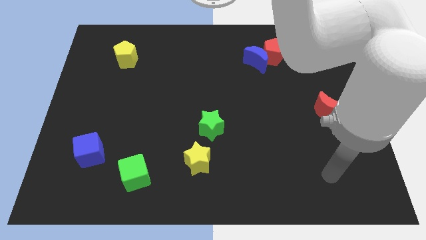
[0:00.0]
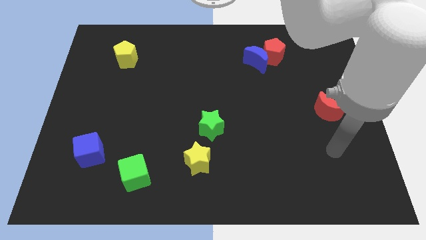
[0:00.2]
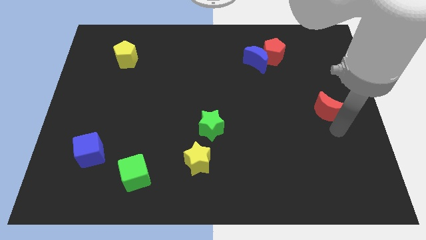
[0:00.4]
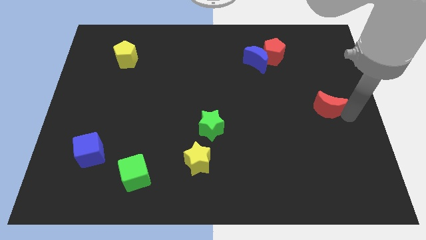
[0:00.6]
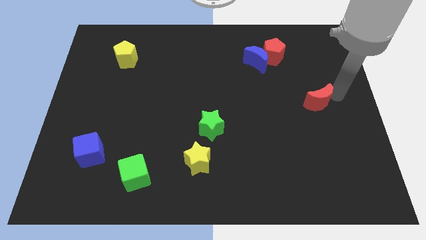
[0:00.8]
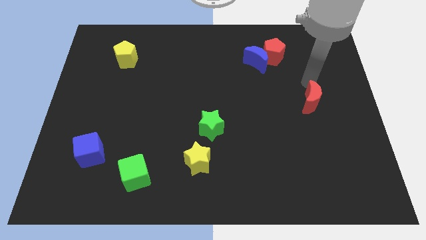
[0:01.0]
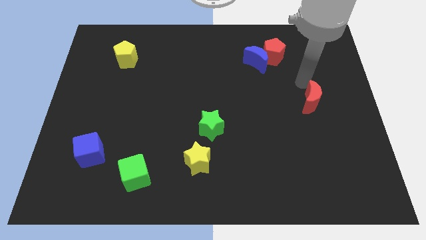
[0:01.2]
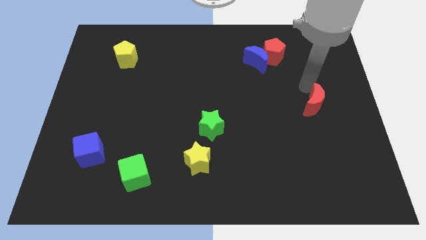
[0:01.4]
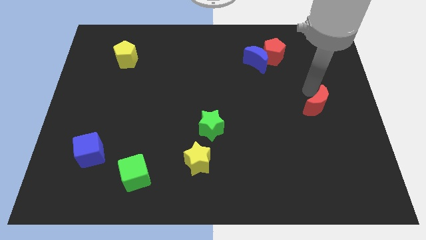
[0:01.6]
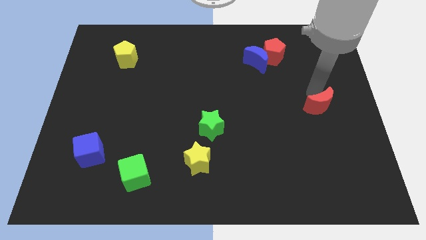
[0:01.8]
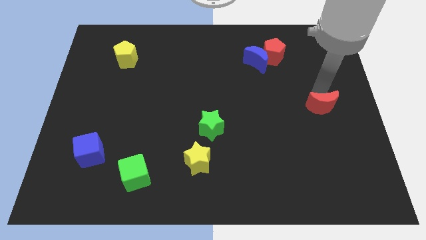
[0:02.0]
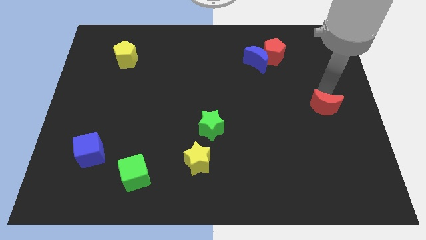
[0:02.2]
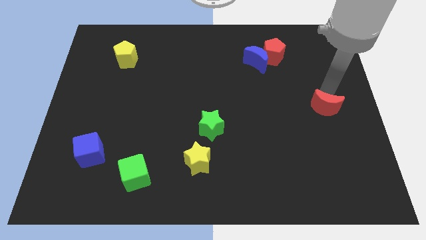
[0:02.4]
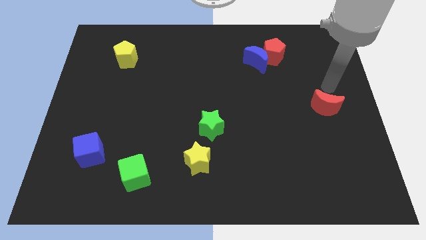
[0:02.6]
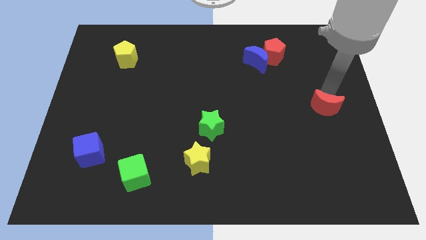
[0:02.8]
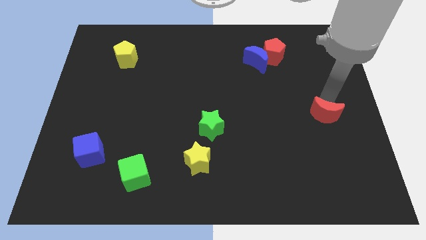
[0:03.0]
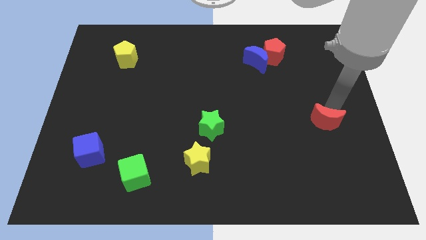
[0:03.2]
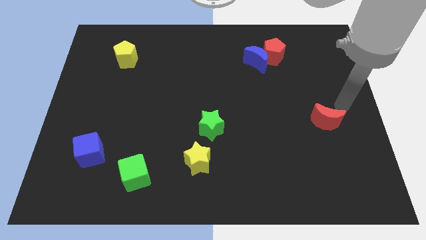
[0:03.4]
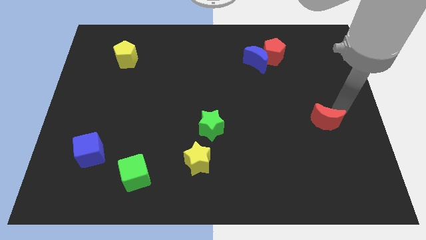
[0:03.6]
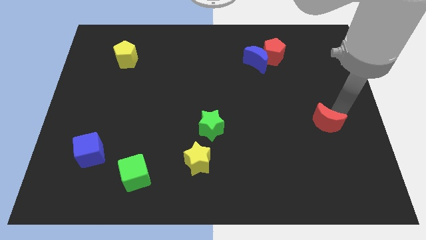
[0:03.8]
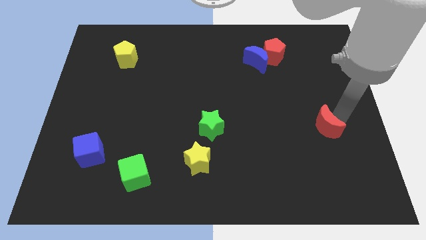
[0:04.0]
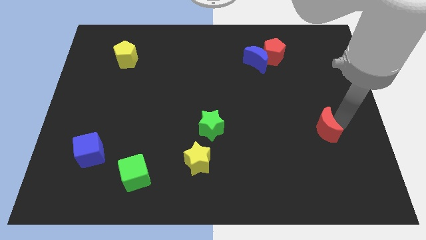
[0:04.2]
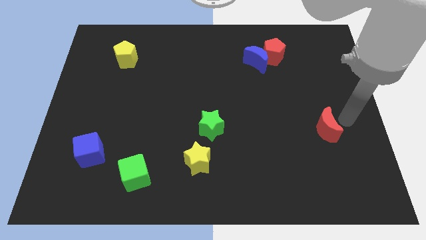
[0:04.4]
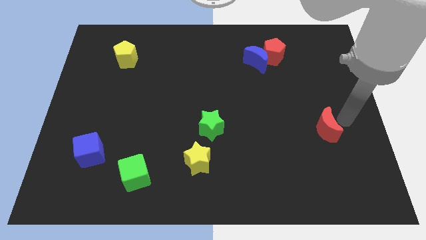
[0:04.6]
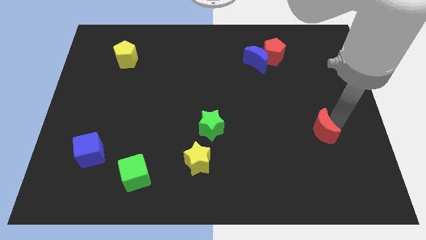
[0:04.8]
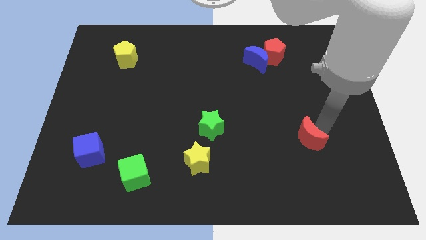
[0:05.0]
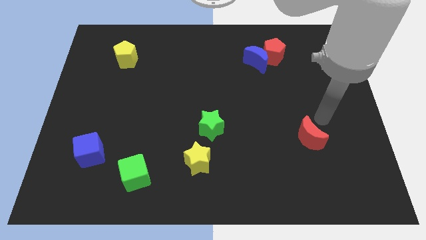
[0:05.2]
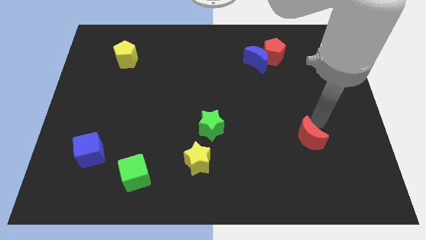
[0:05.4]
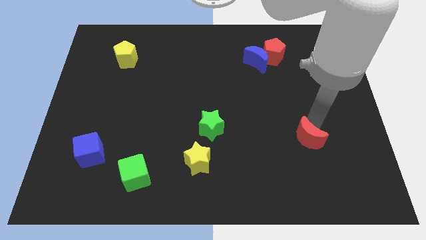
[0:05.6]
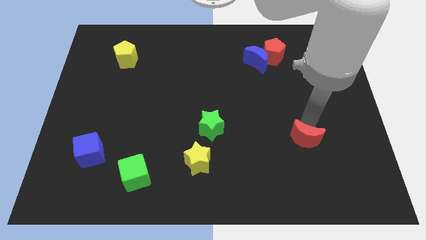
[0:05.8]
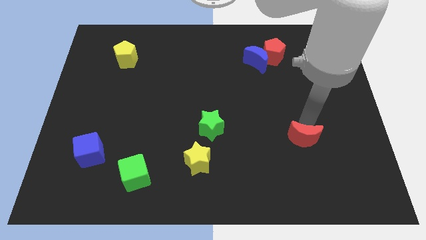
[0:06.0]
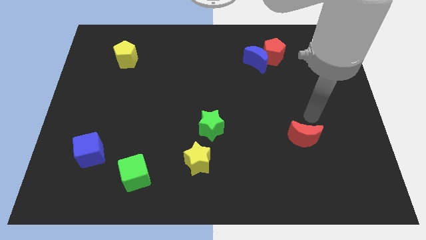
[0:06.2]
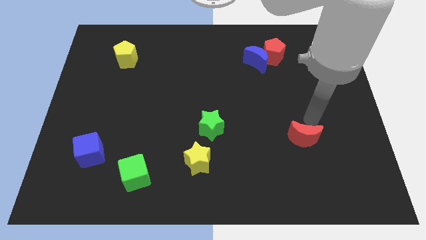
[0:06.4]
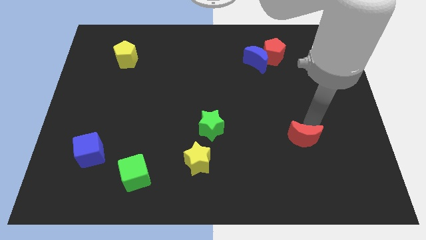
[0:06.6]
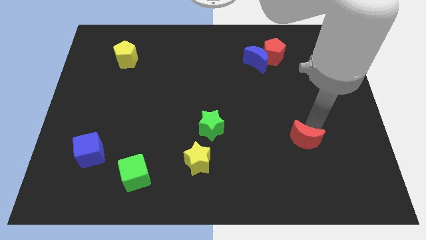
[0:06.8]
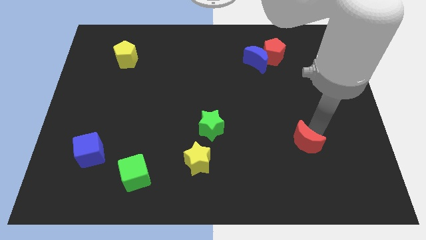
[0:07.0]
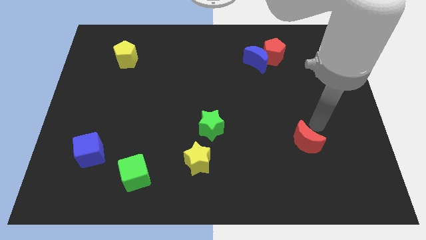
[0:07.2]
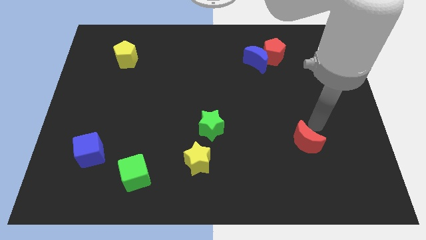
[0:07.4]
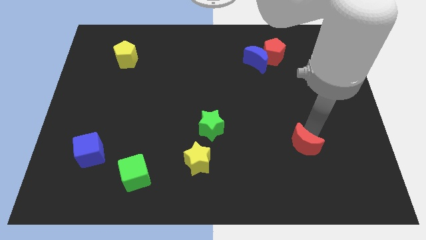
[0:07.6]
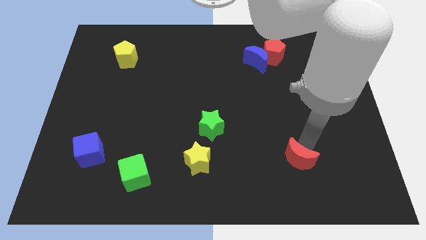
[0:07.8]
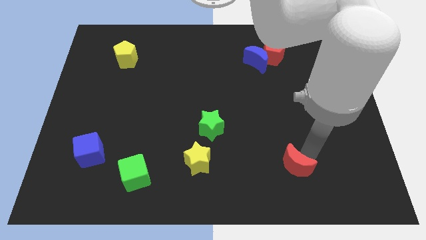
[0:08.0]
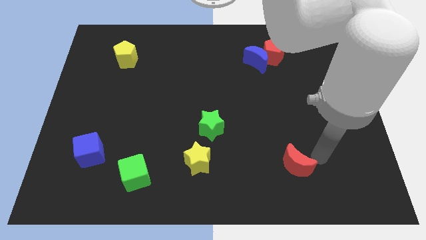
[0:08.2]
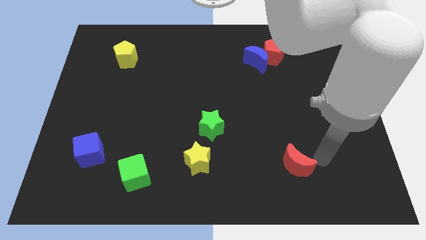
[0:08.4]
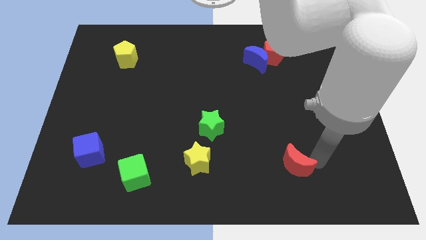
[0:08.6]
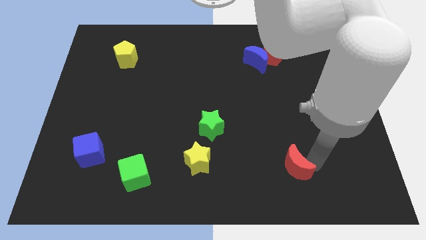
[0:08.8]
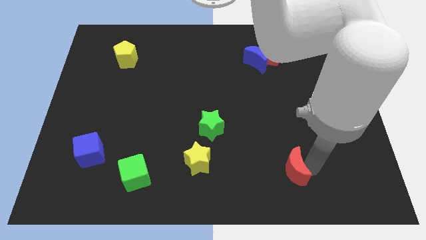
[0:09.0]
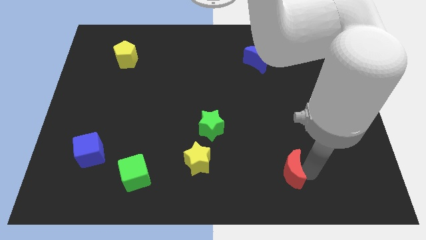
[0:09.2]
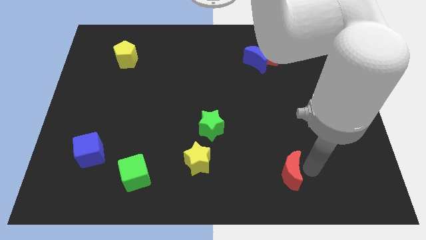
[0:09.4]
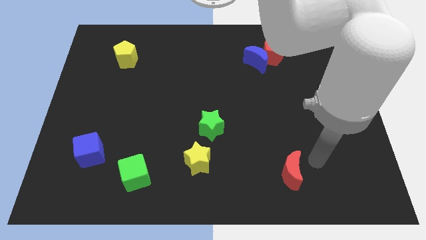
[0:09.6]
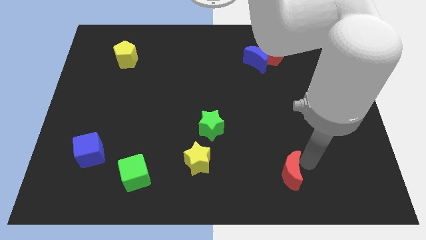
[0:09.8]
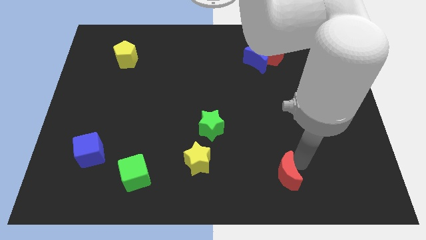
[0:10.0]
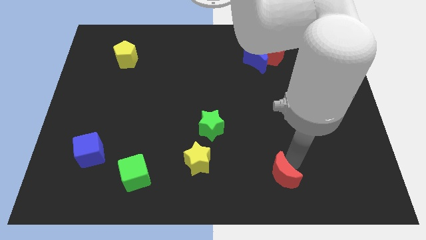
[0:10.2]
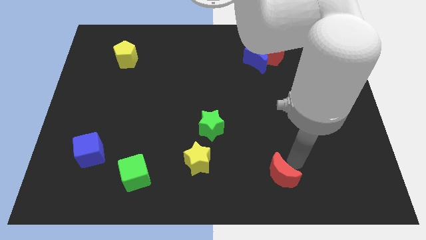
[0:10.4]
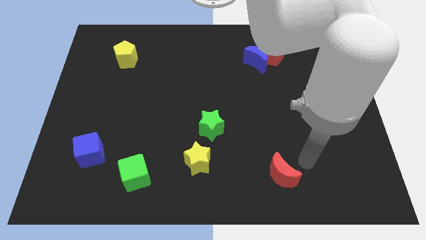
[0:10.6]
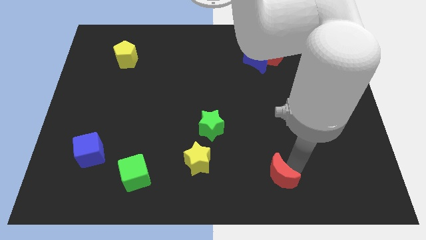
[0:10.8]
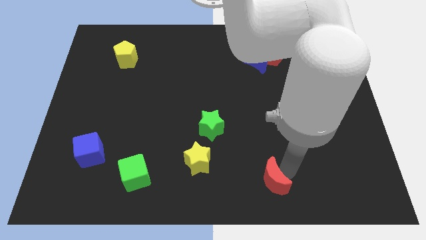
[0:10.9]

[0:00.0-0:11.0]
move the red moon to the bottom
